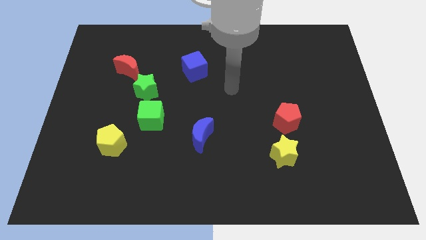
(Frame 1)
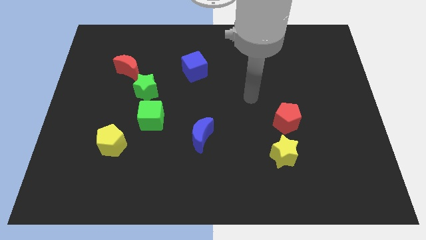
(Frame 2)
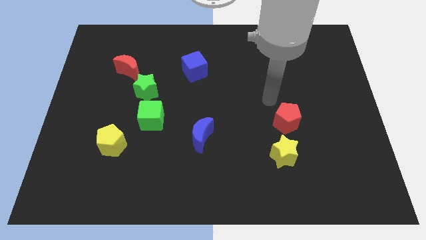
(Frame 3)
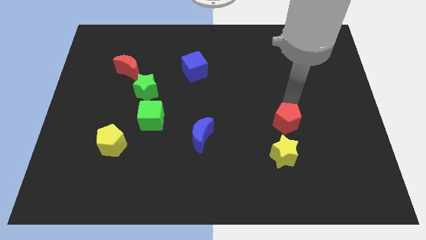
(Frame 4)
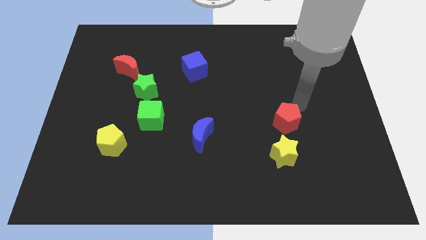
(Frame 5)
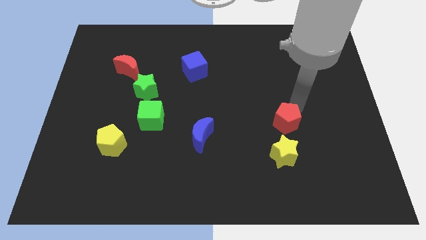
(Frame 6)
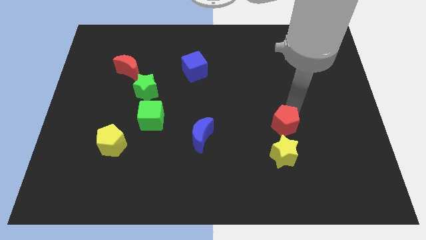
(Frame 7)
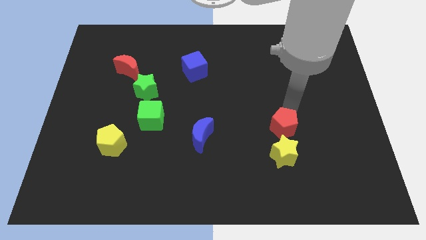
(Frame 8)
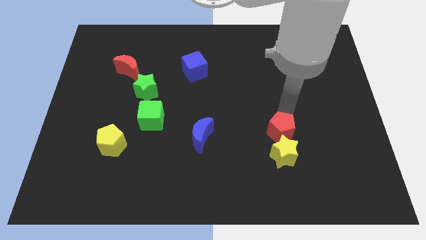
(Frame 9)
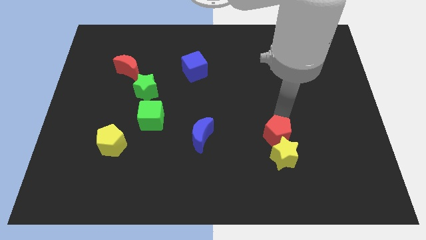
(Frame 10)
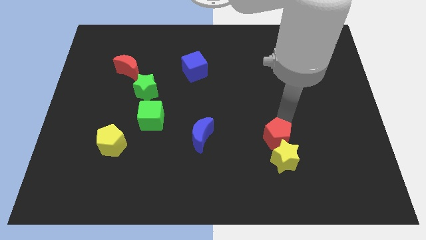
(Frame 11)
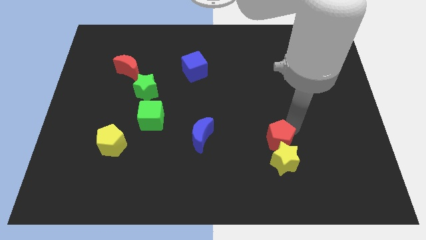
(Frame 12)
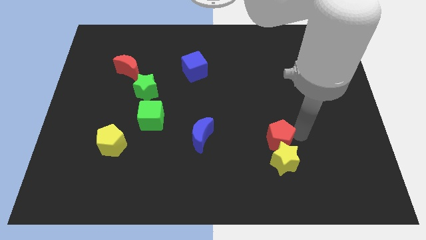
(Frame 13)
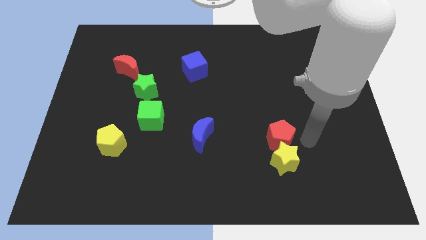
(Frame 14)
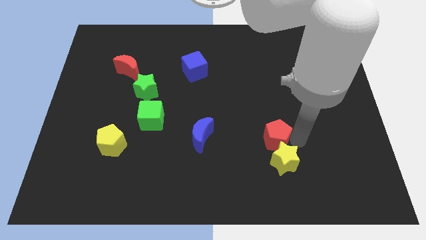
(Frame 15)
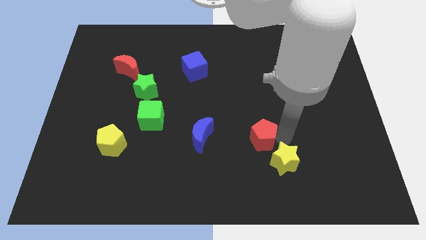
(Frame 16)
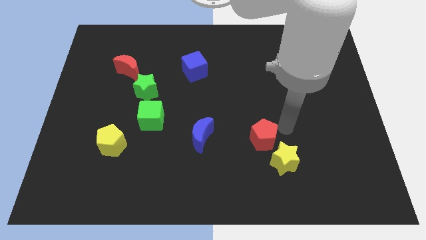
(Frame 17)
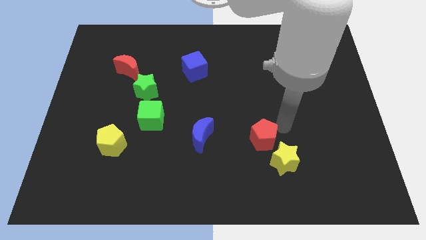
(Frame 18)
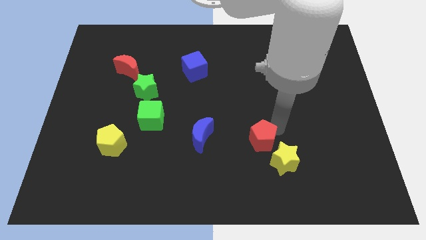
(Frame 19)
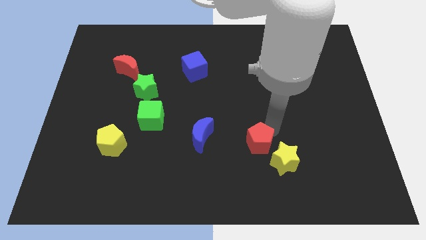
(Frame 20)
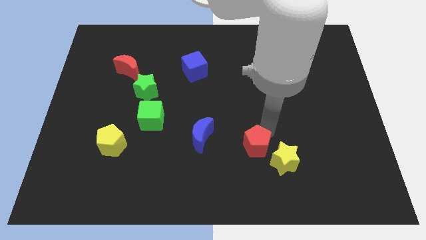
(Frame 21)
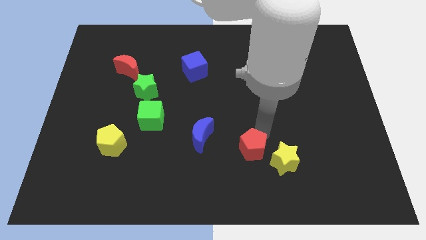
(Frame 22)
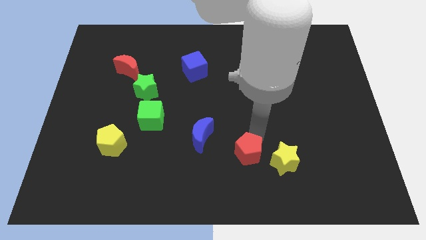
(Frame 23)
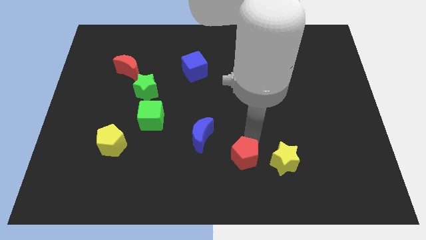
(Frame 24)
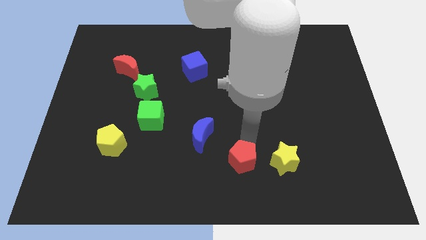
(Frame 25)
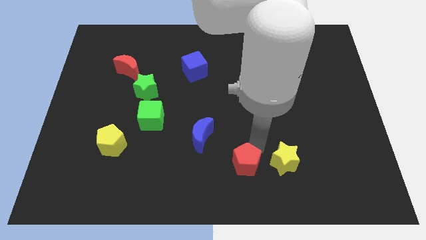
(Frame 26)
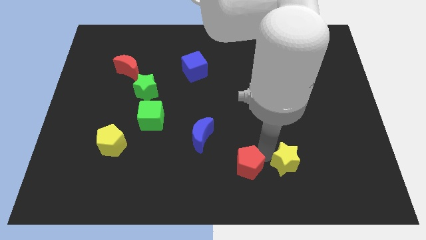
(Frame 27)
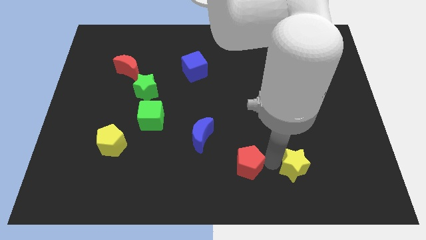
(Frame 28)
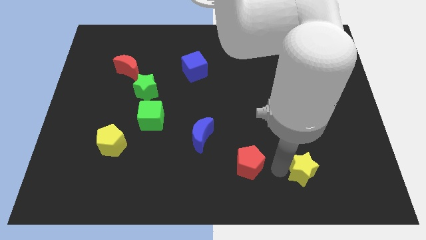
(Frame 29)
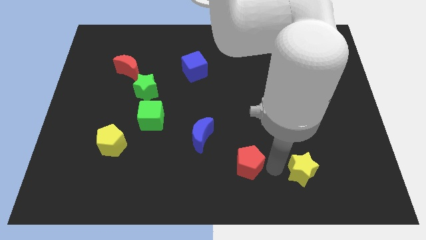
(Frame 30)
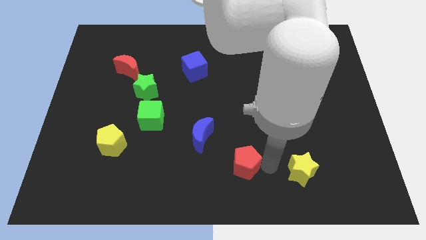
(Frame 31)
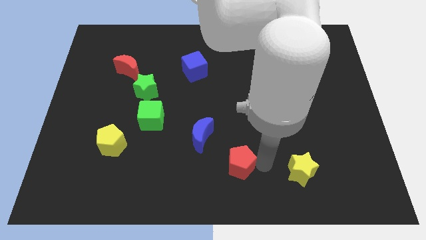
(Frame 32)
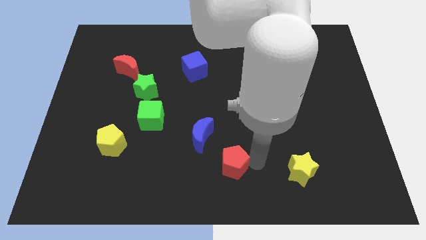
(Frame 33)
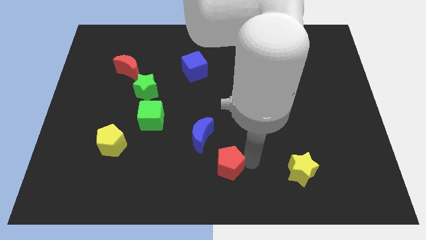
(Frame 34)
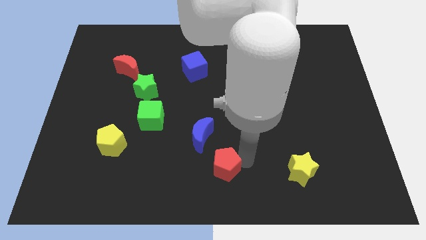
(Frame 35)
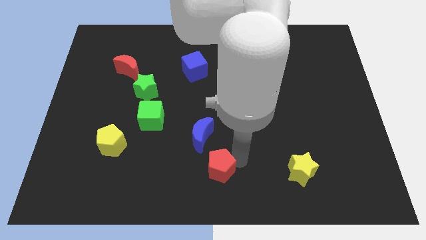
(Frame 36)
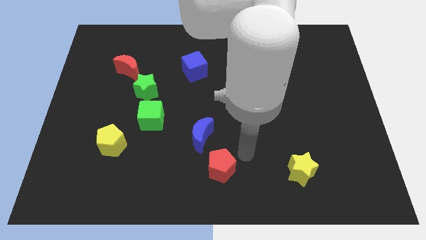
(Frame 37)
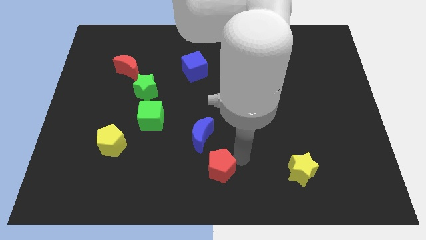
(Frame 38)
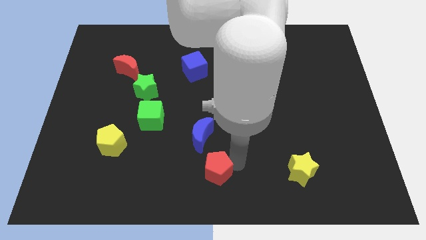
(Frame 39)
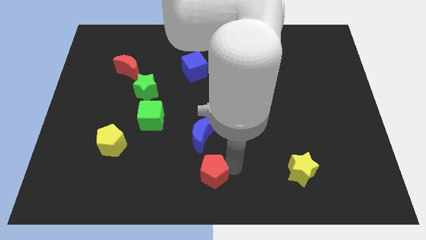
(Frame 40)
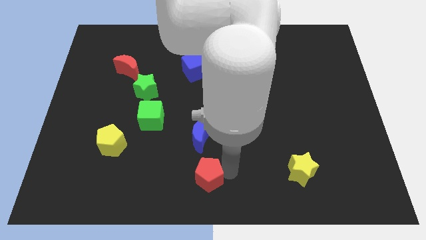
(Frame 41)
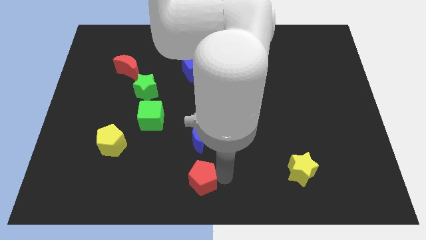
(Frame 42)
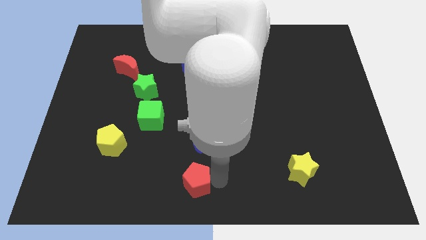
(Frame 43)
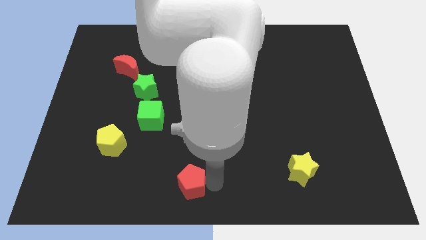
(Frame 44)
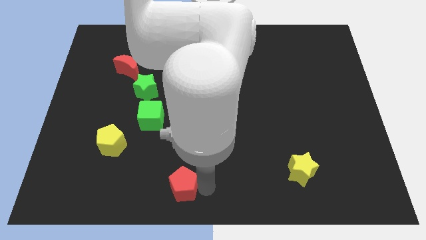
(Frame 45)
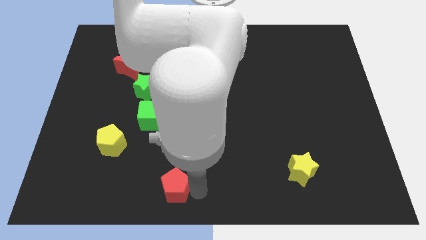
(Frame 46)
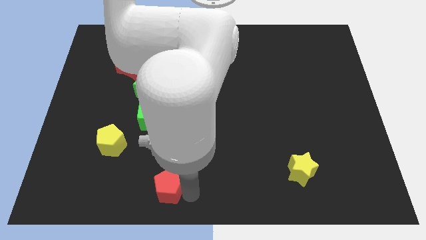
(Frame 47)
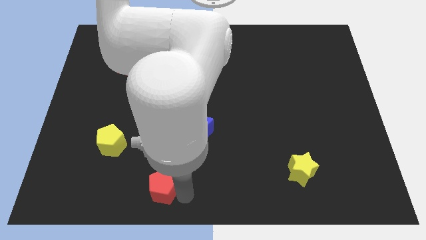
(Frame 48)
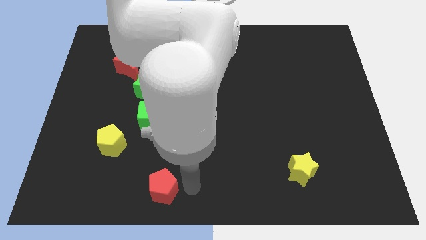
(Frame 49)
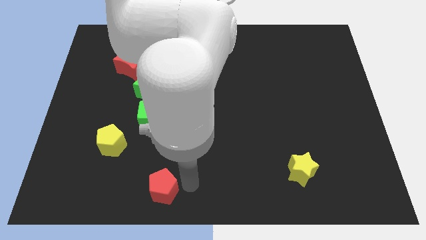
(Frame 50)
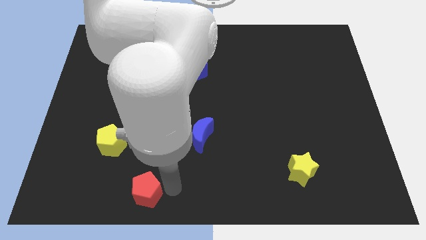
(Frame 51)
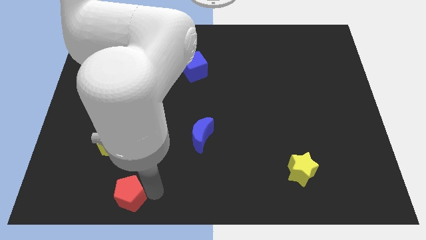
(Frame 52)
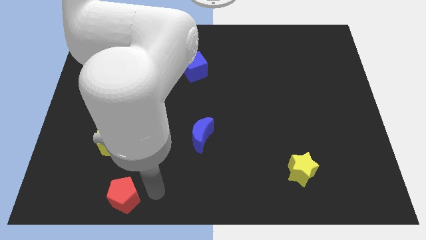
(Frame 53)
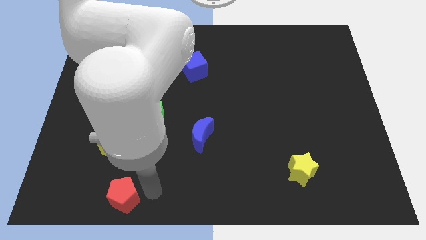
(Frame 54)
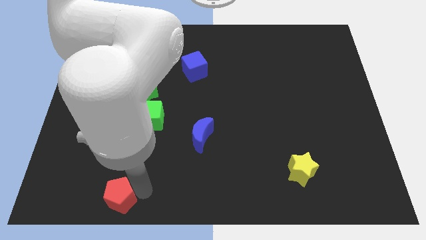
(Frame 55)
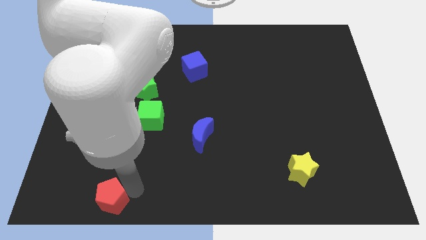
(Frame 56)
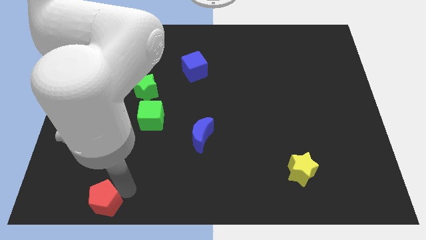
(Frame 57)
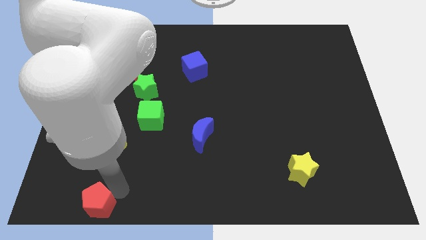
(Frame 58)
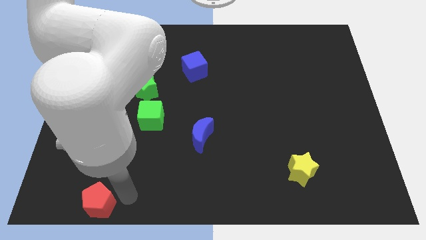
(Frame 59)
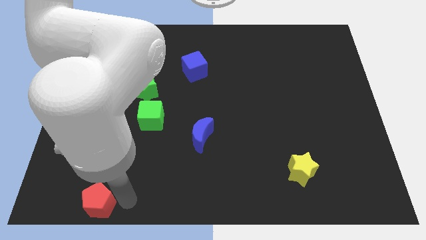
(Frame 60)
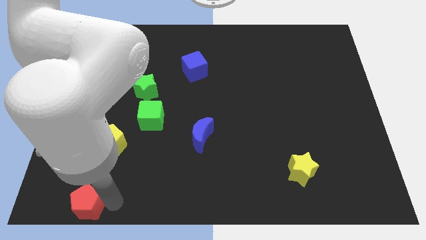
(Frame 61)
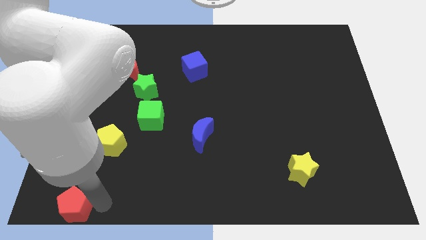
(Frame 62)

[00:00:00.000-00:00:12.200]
push the red pentagon to the bottom left
